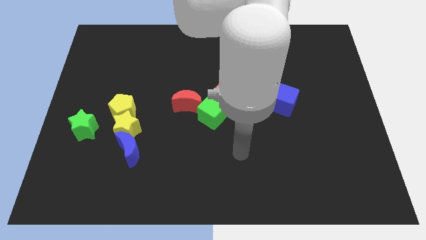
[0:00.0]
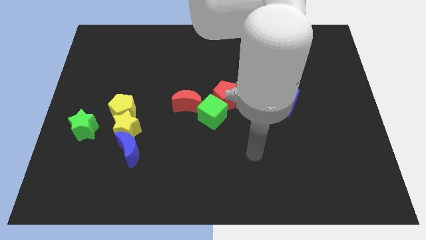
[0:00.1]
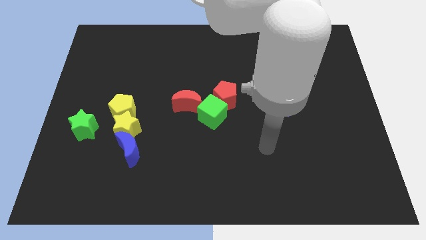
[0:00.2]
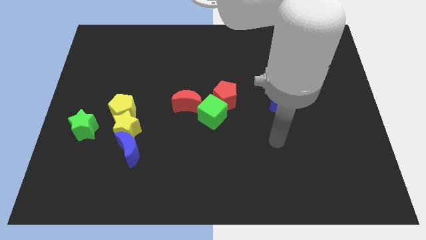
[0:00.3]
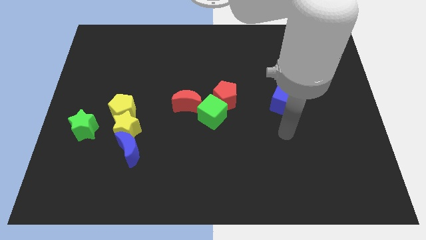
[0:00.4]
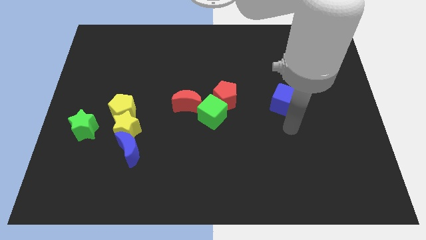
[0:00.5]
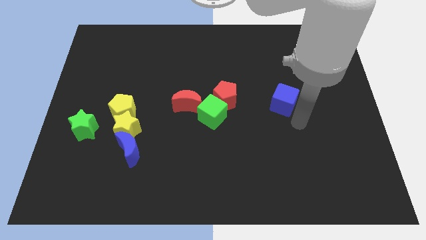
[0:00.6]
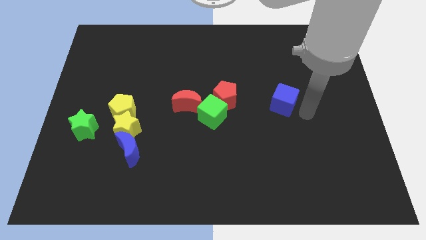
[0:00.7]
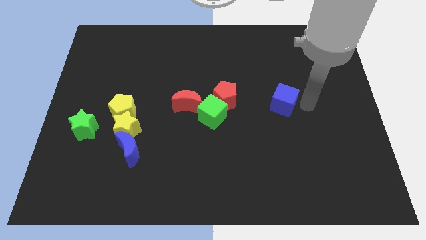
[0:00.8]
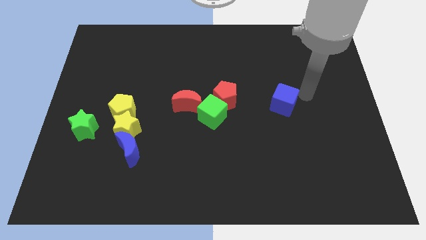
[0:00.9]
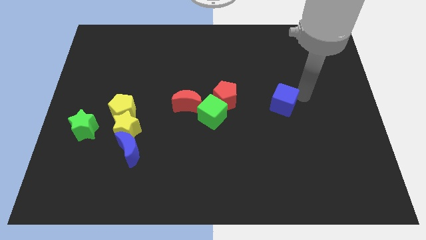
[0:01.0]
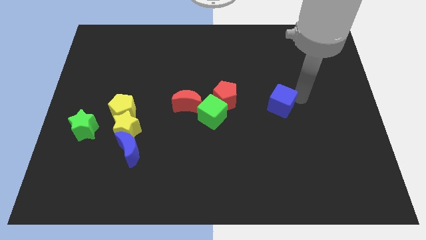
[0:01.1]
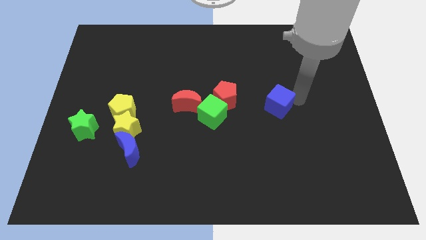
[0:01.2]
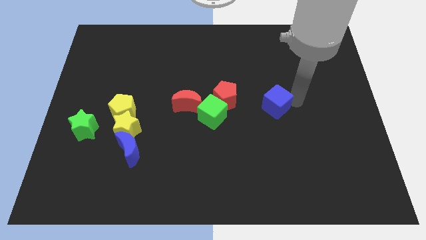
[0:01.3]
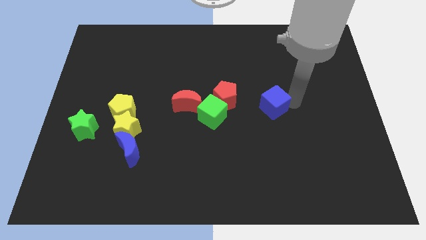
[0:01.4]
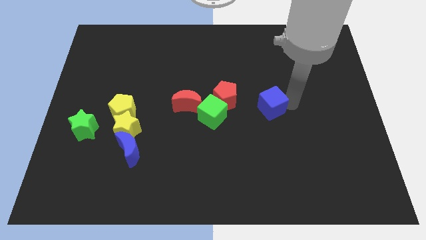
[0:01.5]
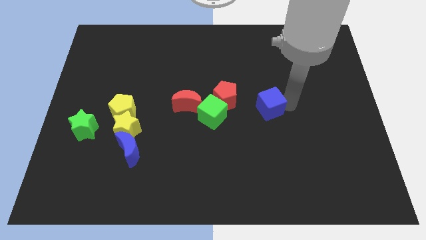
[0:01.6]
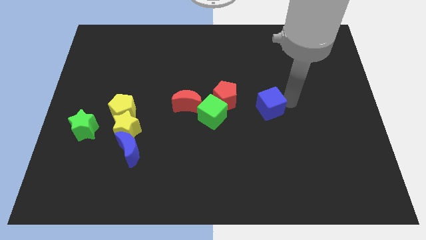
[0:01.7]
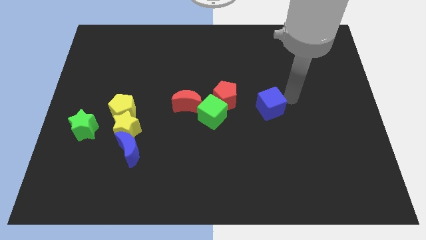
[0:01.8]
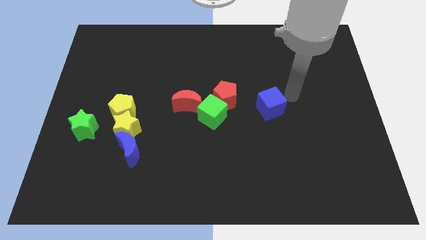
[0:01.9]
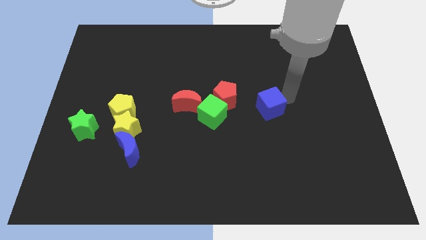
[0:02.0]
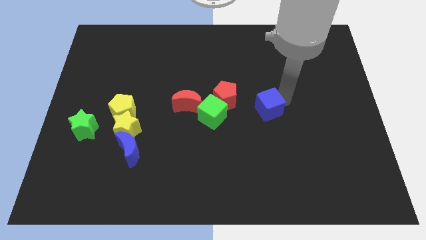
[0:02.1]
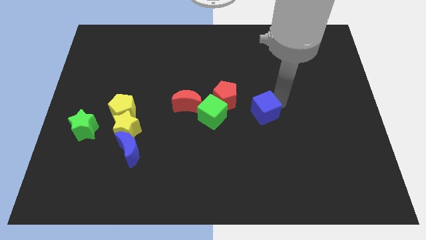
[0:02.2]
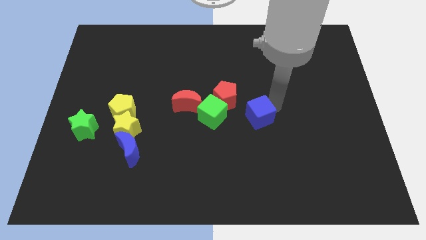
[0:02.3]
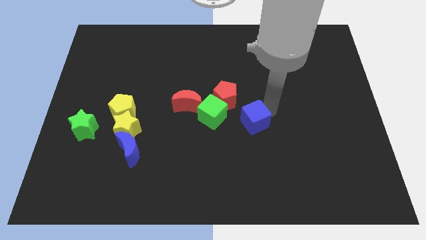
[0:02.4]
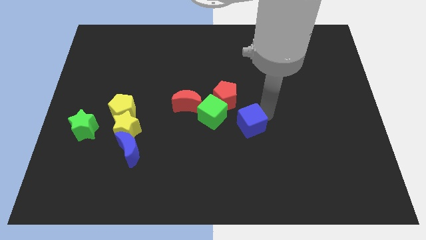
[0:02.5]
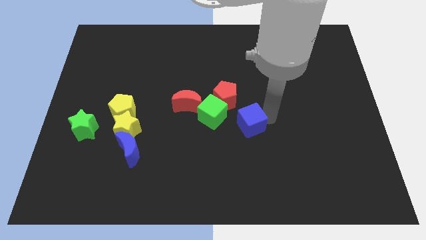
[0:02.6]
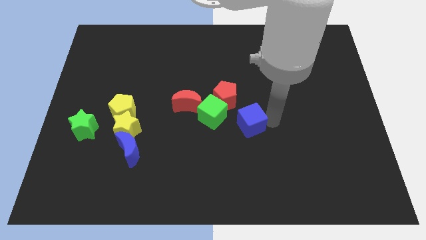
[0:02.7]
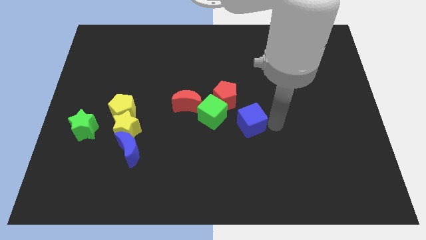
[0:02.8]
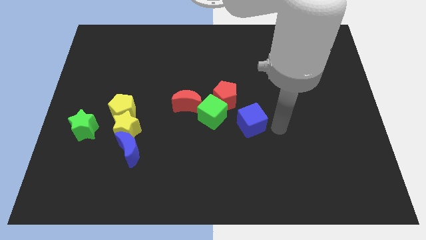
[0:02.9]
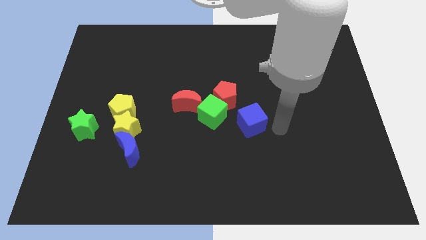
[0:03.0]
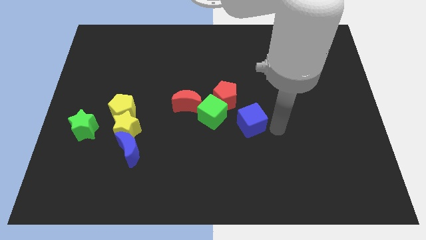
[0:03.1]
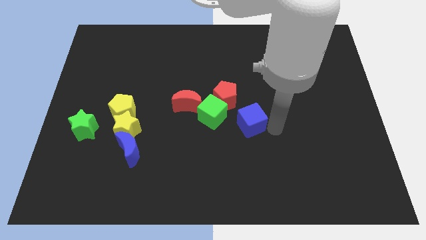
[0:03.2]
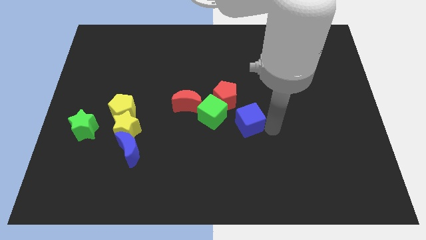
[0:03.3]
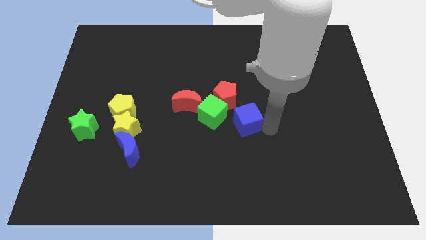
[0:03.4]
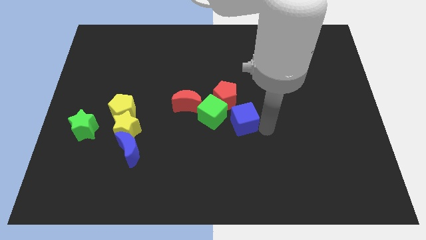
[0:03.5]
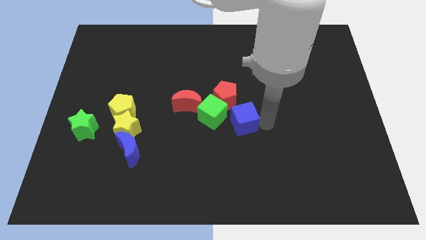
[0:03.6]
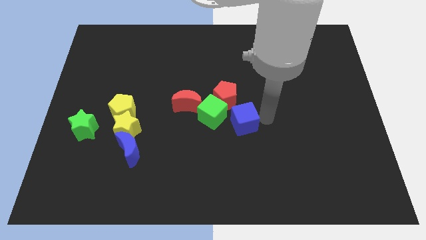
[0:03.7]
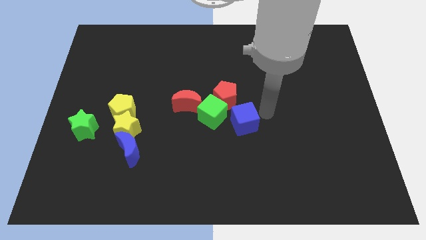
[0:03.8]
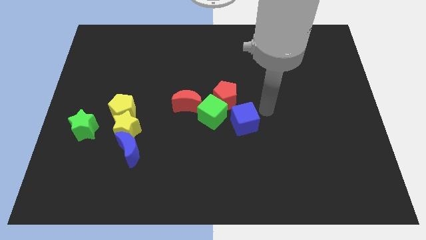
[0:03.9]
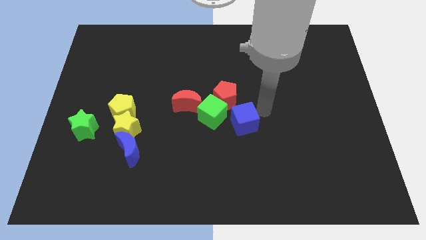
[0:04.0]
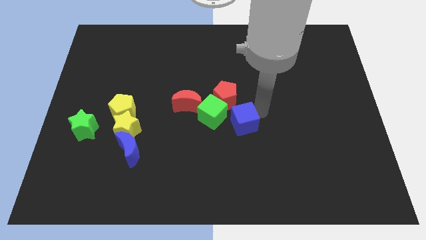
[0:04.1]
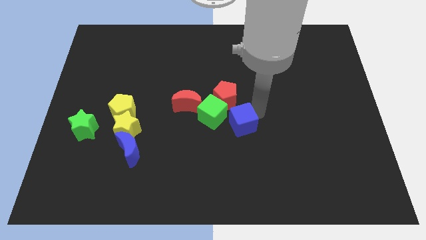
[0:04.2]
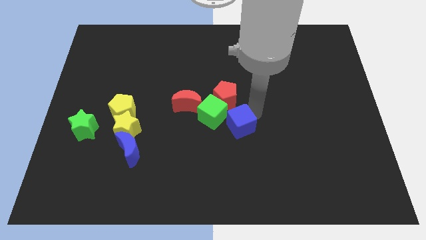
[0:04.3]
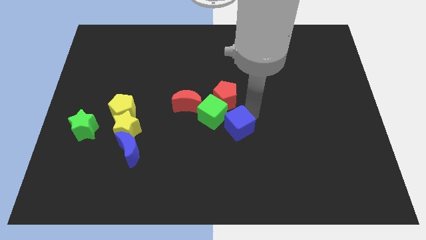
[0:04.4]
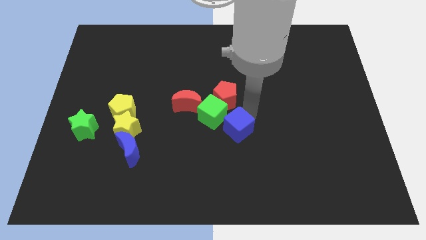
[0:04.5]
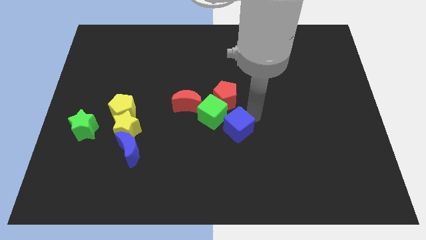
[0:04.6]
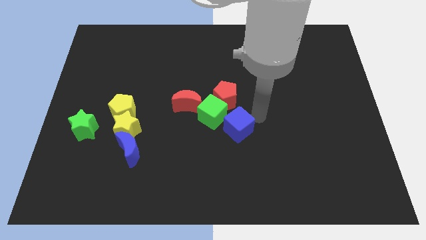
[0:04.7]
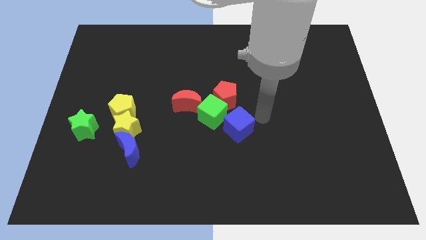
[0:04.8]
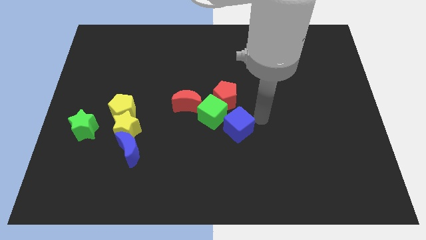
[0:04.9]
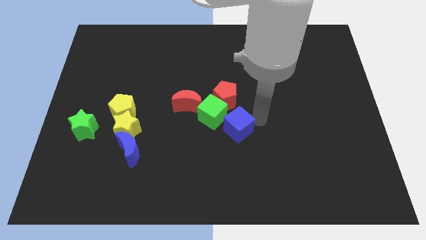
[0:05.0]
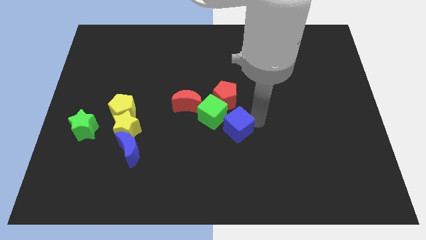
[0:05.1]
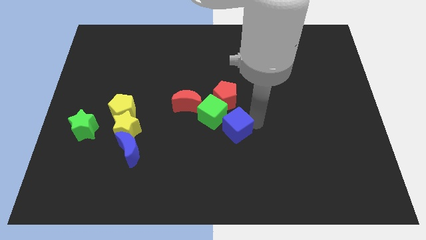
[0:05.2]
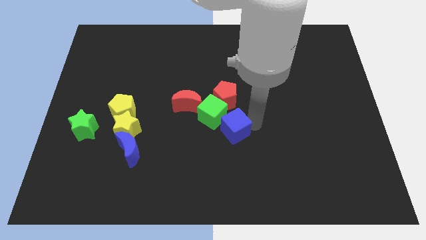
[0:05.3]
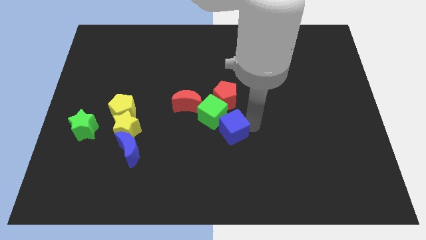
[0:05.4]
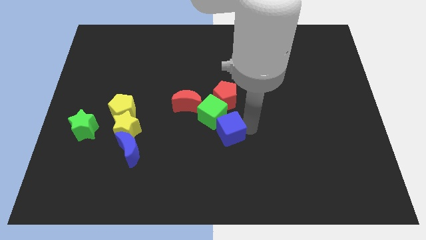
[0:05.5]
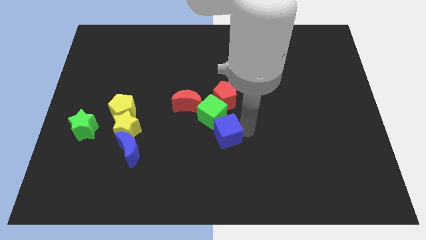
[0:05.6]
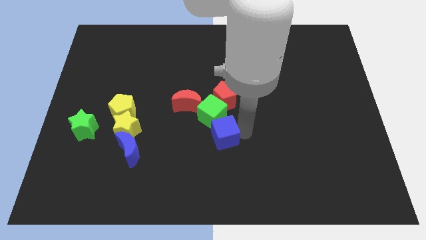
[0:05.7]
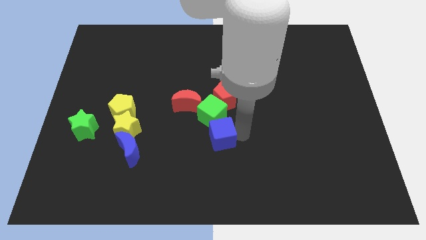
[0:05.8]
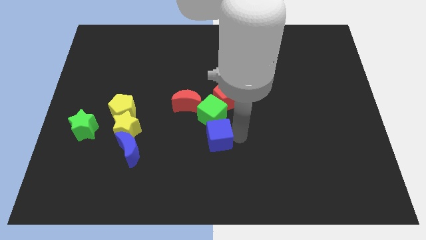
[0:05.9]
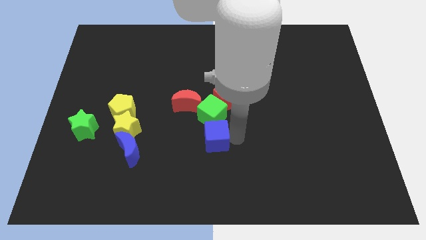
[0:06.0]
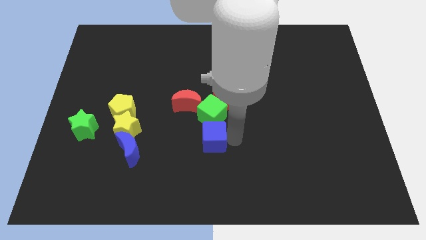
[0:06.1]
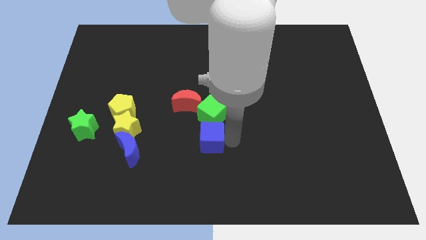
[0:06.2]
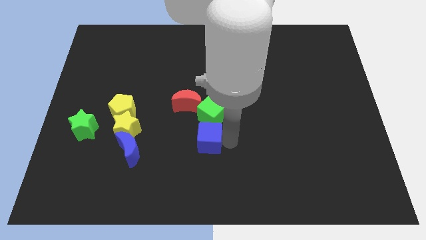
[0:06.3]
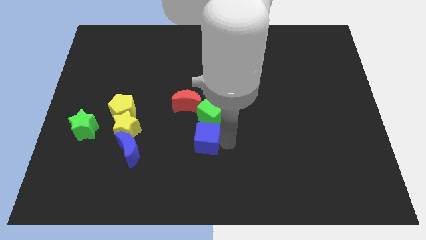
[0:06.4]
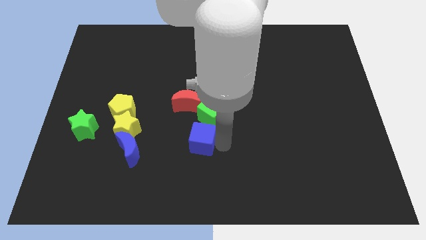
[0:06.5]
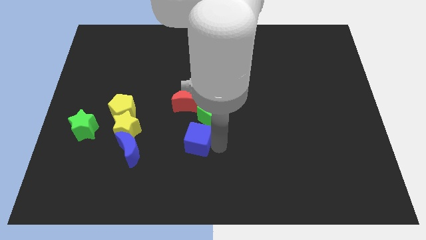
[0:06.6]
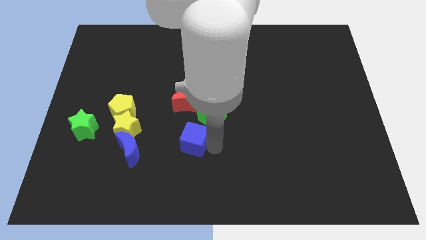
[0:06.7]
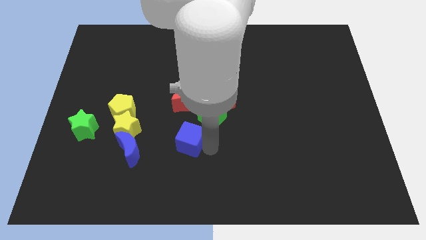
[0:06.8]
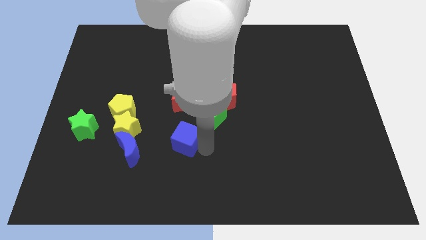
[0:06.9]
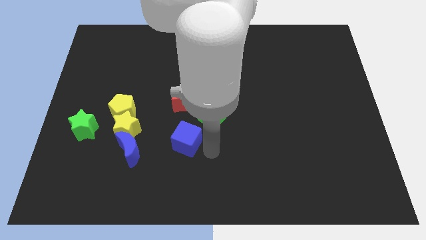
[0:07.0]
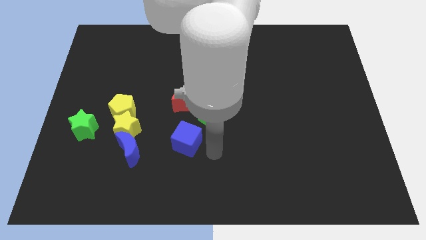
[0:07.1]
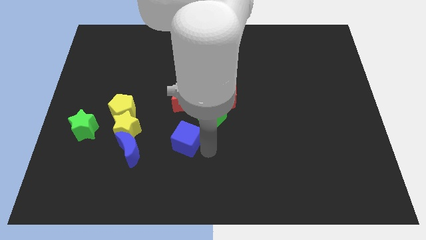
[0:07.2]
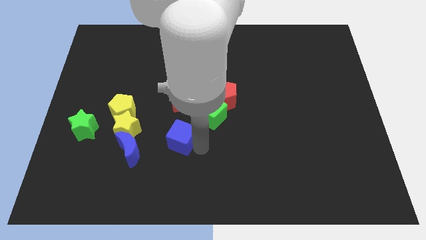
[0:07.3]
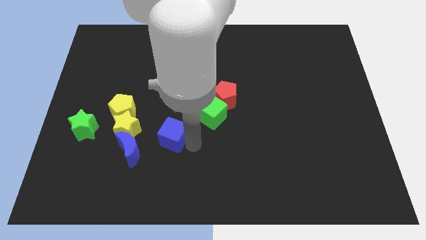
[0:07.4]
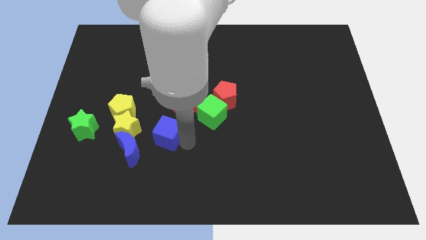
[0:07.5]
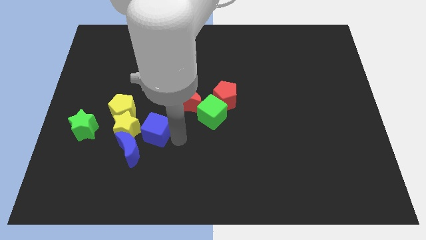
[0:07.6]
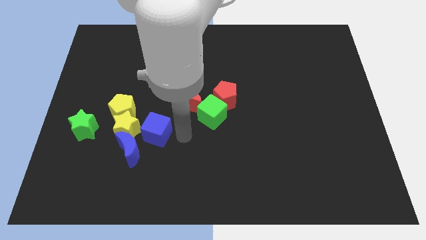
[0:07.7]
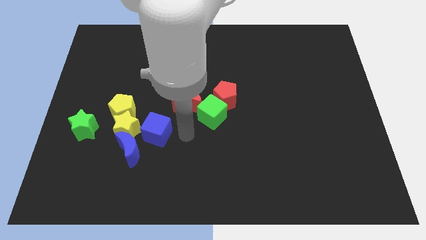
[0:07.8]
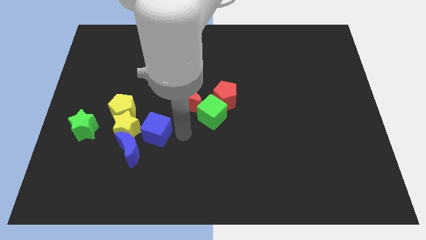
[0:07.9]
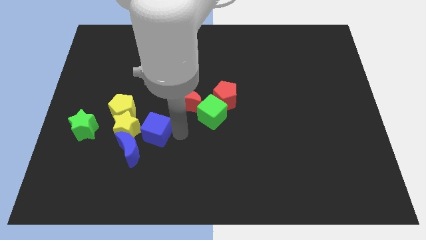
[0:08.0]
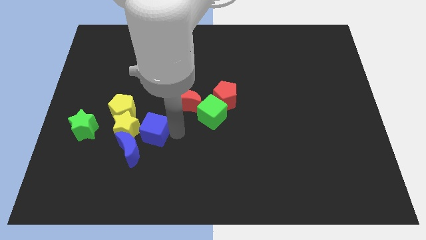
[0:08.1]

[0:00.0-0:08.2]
move the blue cube to the yellow star
